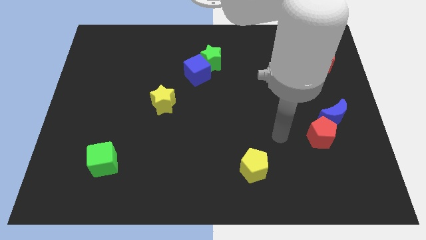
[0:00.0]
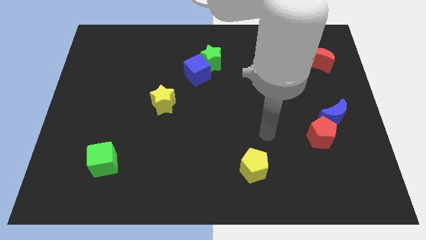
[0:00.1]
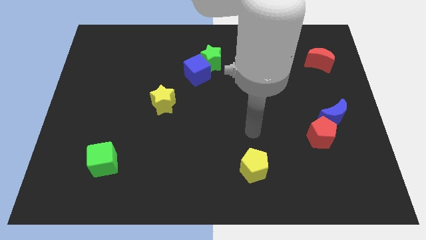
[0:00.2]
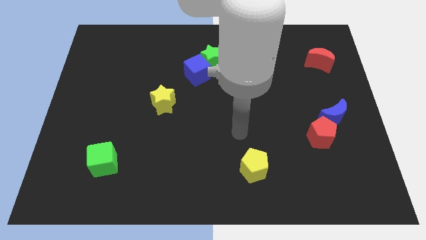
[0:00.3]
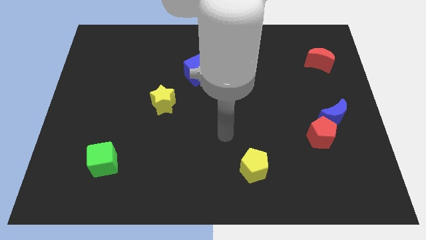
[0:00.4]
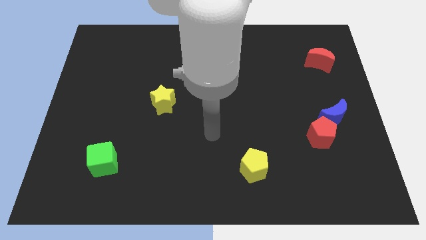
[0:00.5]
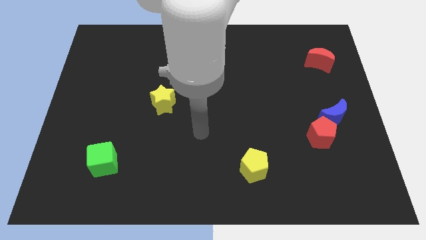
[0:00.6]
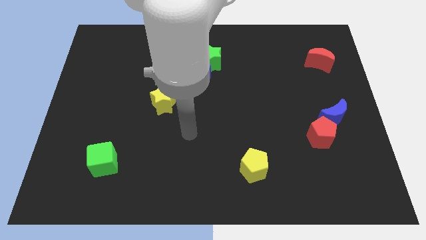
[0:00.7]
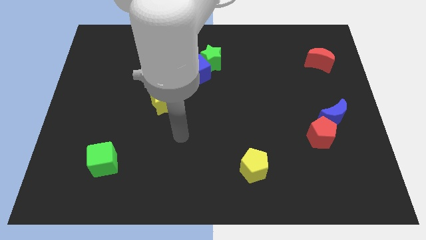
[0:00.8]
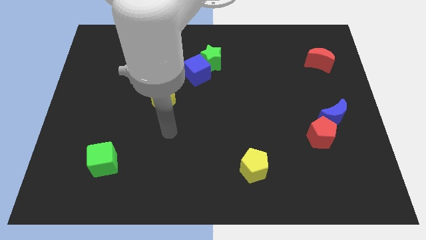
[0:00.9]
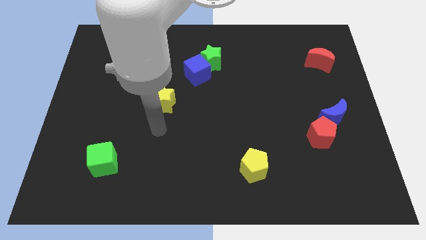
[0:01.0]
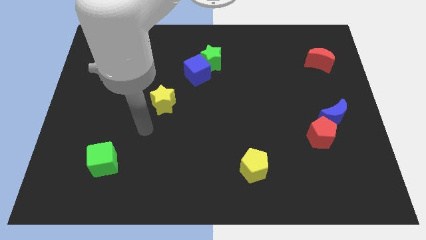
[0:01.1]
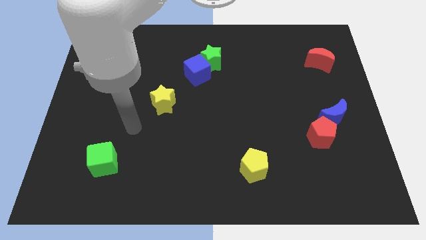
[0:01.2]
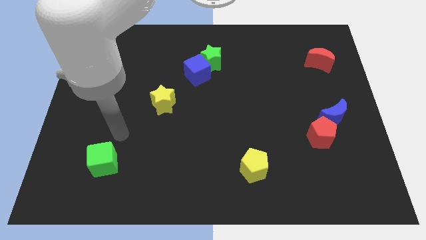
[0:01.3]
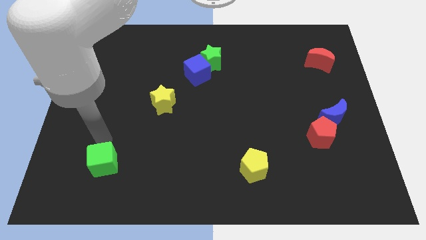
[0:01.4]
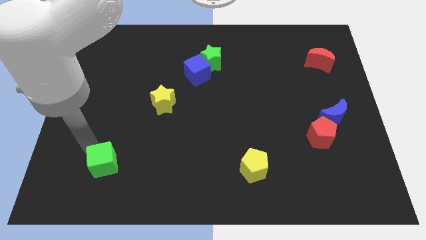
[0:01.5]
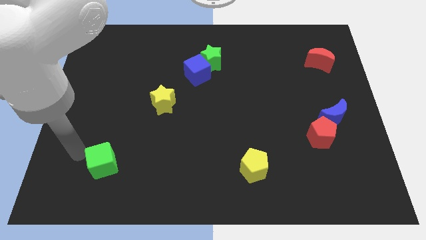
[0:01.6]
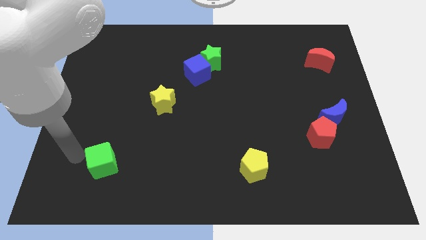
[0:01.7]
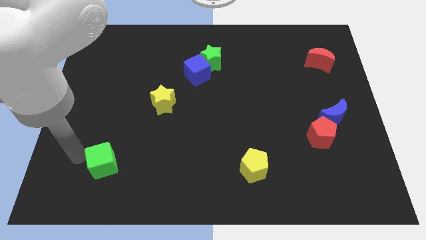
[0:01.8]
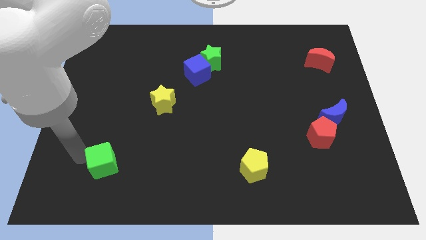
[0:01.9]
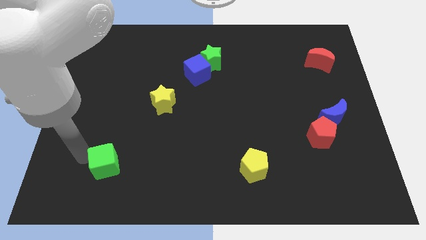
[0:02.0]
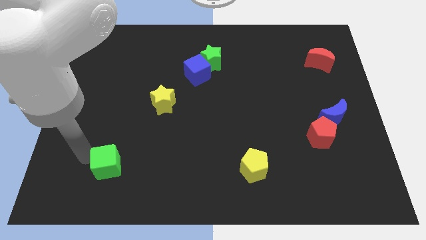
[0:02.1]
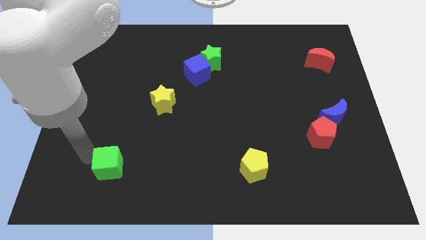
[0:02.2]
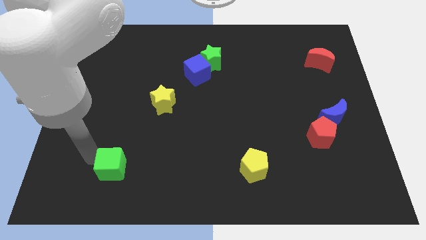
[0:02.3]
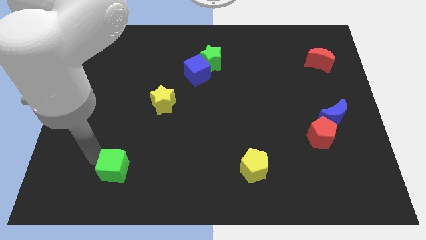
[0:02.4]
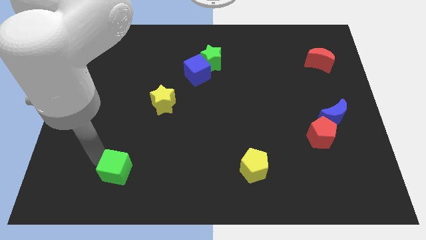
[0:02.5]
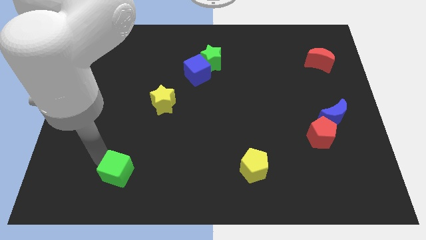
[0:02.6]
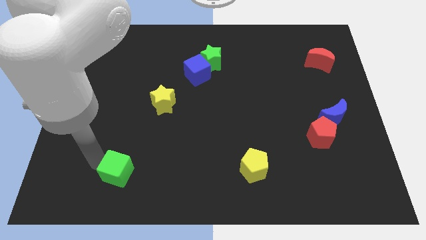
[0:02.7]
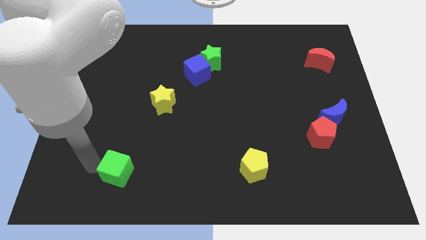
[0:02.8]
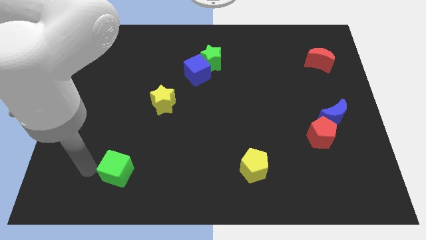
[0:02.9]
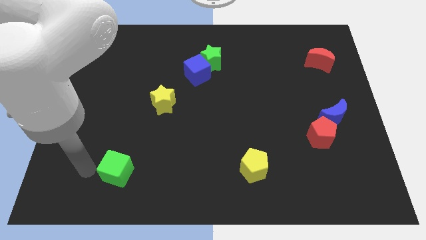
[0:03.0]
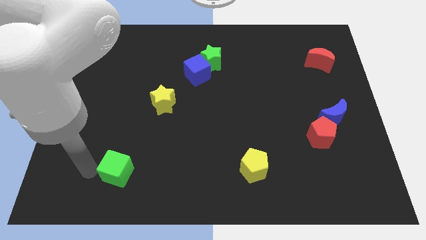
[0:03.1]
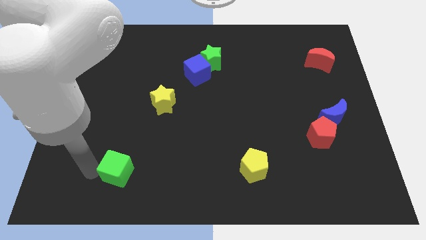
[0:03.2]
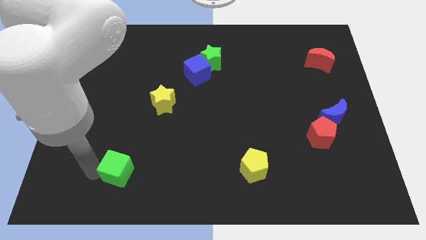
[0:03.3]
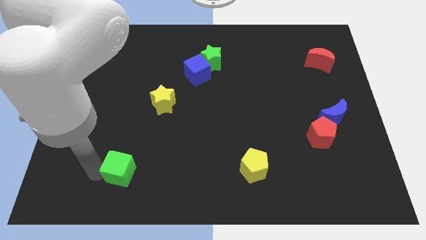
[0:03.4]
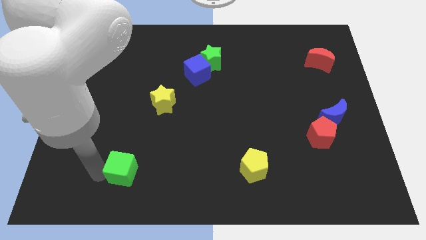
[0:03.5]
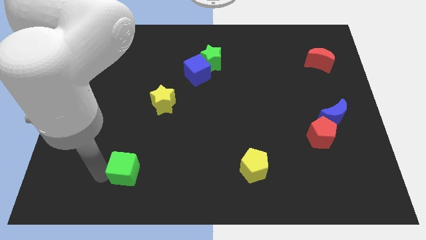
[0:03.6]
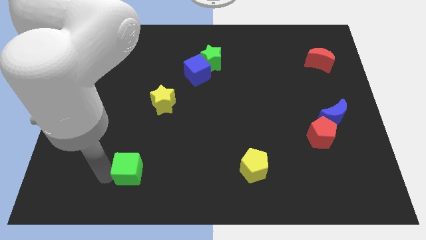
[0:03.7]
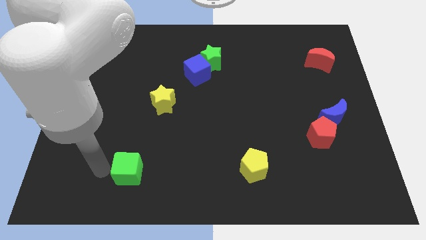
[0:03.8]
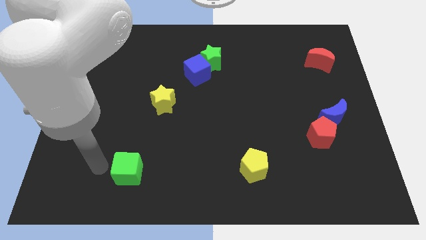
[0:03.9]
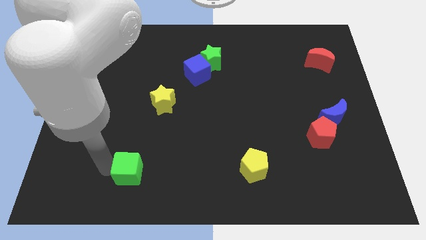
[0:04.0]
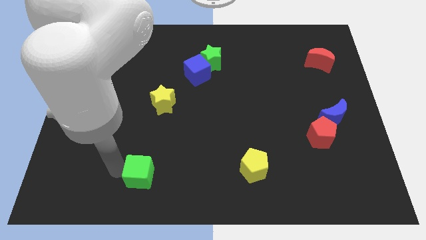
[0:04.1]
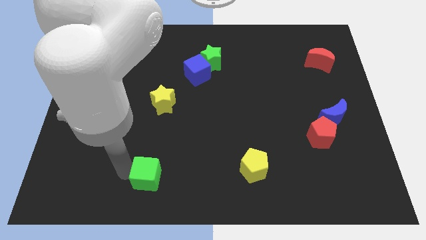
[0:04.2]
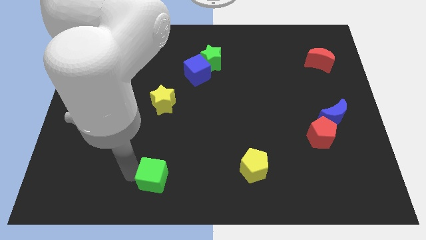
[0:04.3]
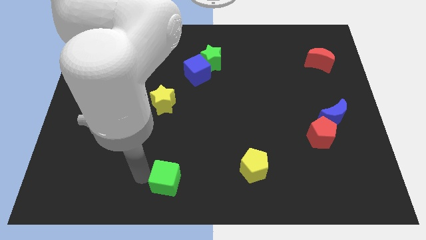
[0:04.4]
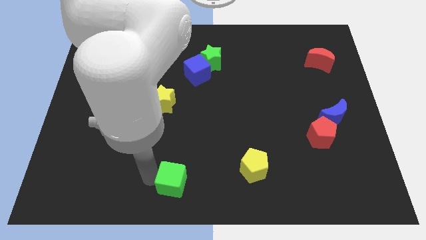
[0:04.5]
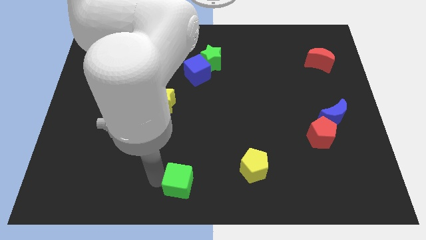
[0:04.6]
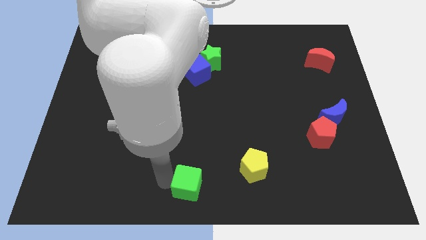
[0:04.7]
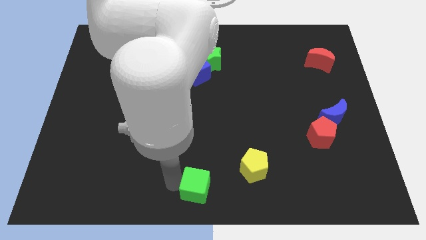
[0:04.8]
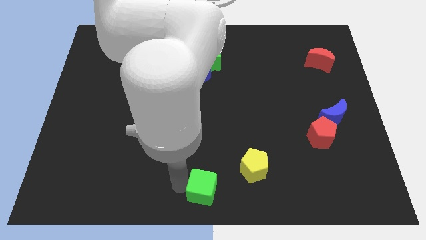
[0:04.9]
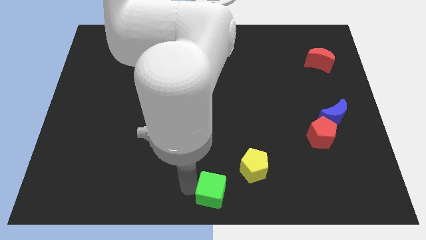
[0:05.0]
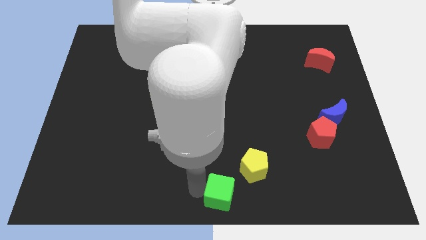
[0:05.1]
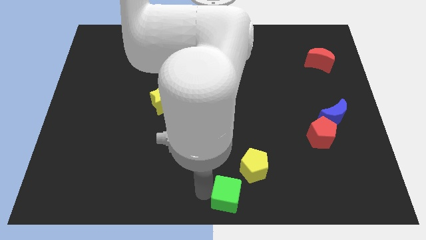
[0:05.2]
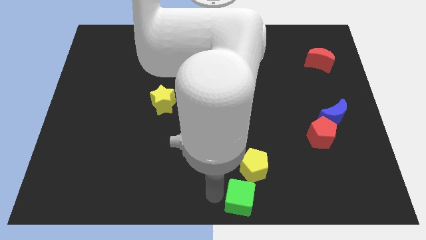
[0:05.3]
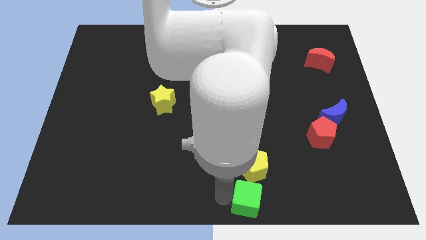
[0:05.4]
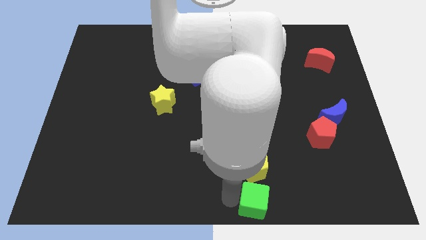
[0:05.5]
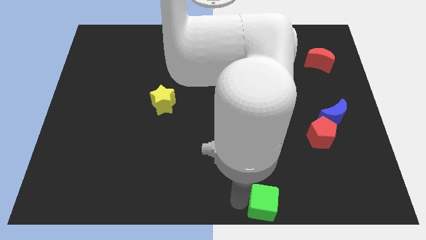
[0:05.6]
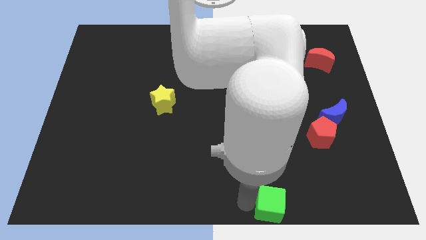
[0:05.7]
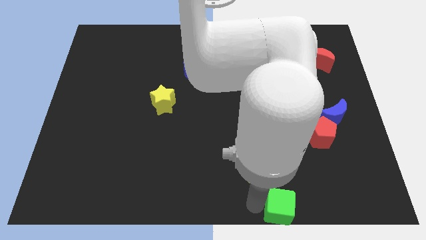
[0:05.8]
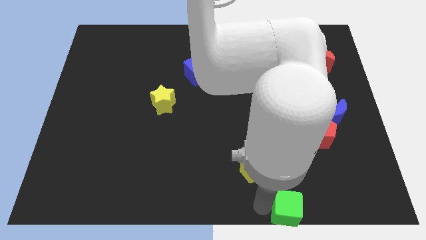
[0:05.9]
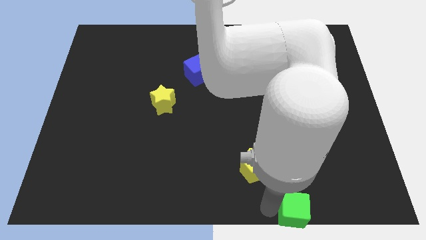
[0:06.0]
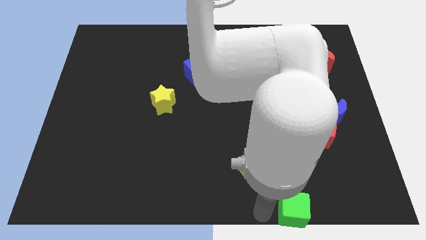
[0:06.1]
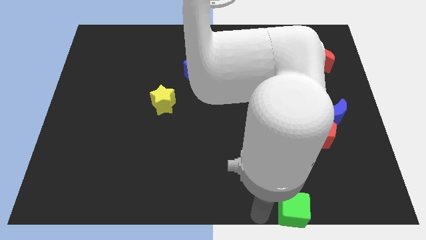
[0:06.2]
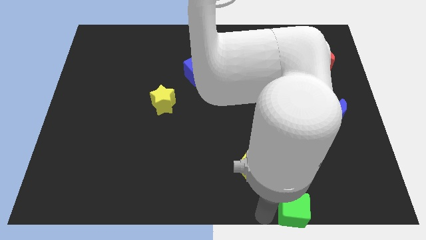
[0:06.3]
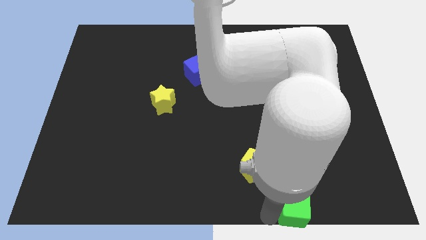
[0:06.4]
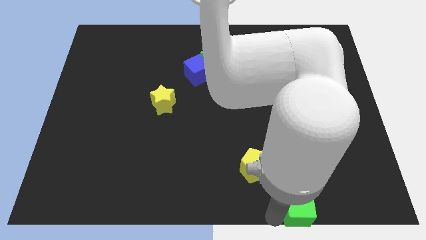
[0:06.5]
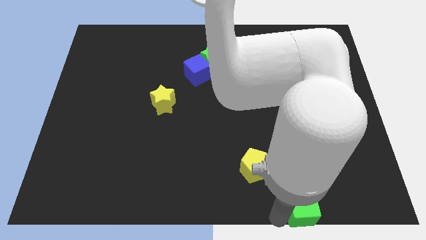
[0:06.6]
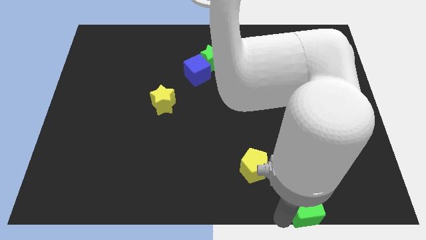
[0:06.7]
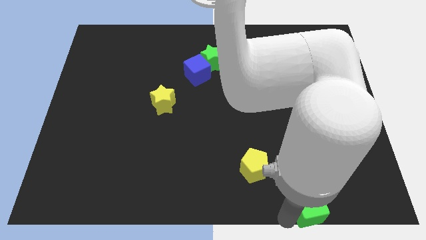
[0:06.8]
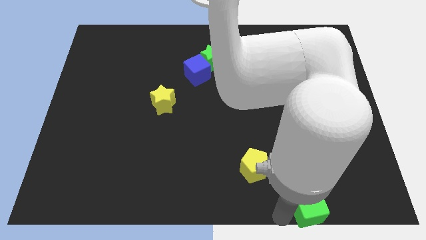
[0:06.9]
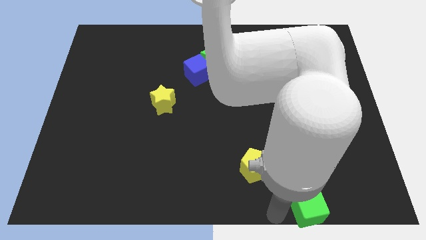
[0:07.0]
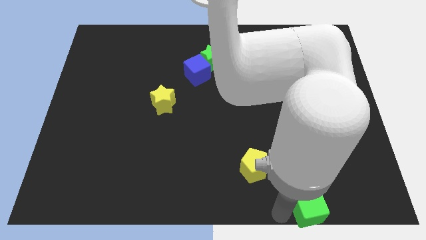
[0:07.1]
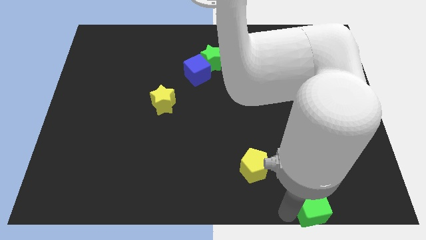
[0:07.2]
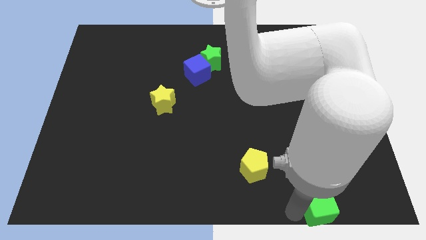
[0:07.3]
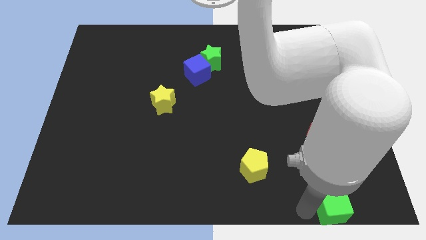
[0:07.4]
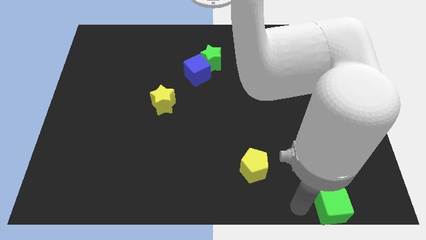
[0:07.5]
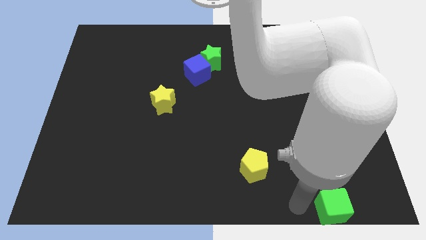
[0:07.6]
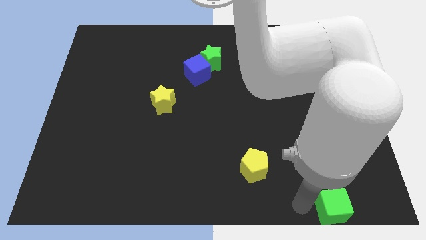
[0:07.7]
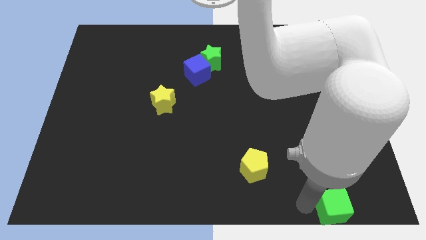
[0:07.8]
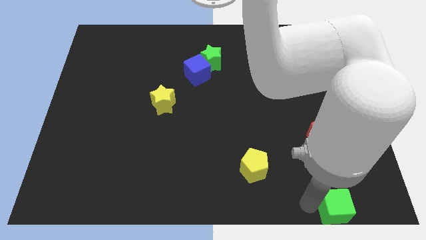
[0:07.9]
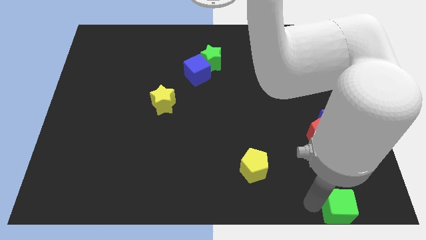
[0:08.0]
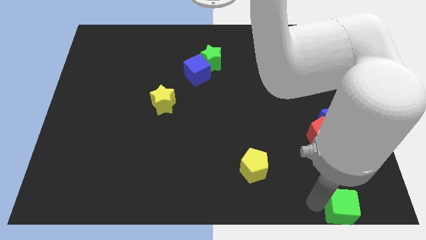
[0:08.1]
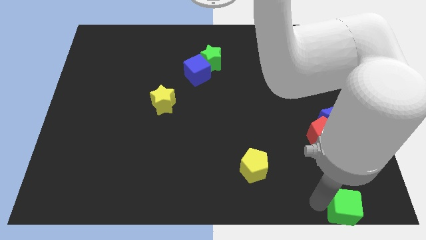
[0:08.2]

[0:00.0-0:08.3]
put the green cube to the lower right corner
